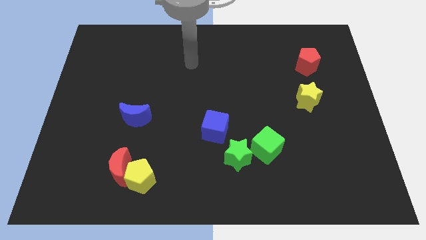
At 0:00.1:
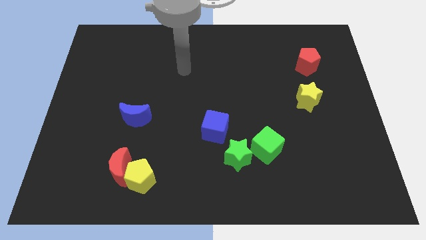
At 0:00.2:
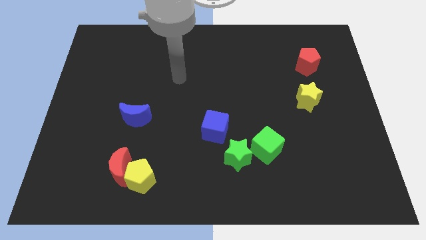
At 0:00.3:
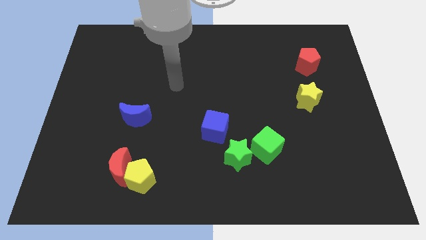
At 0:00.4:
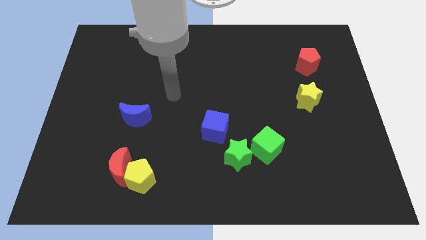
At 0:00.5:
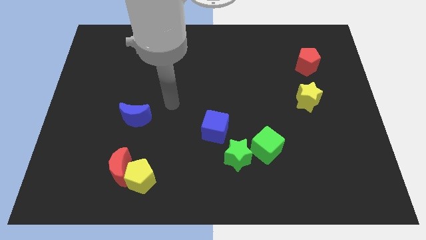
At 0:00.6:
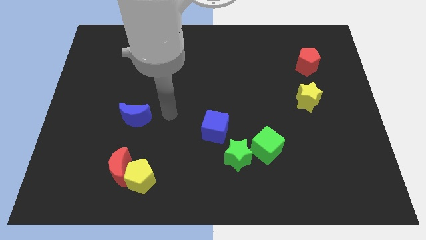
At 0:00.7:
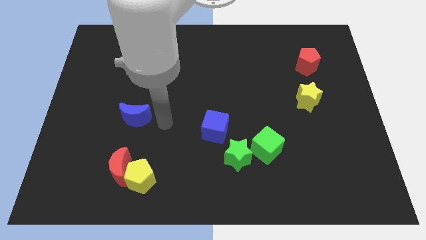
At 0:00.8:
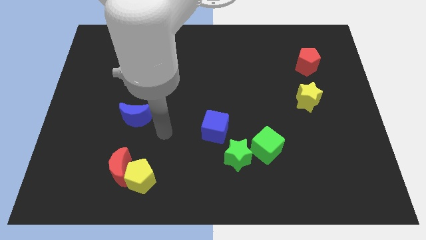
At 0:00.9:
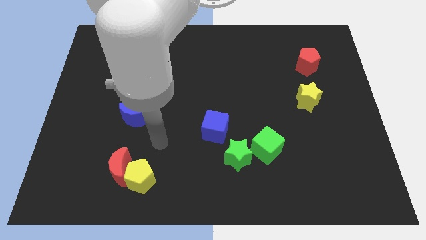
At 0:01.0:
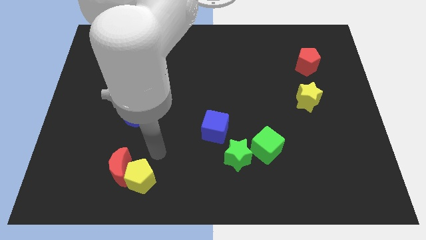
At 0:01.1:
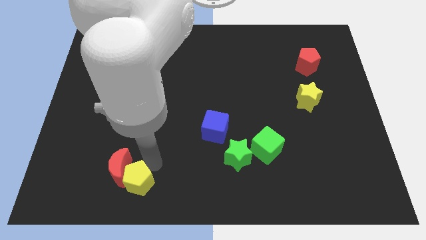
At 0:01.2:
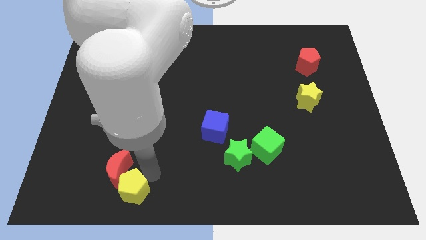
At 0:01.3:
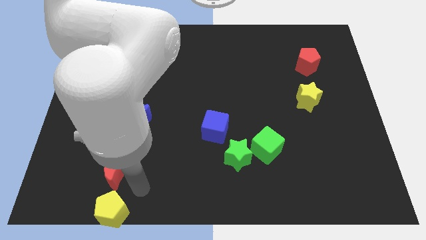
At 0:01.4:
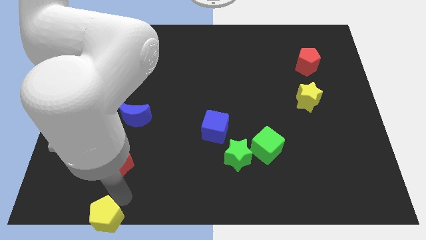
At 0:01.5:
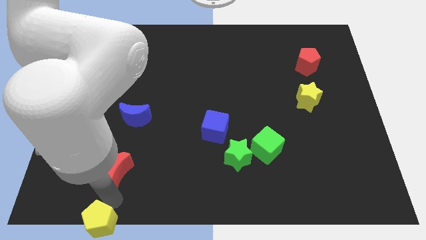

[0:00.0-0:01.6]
move the red moon away from the yellow pentagon

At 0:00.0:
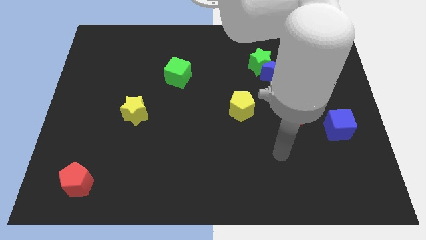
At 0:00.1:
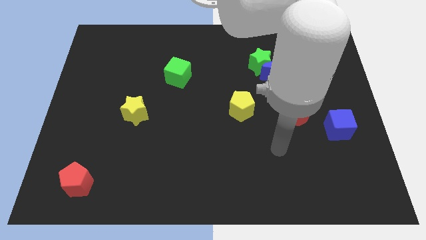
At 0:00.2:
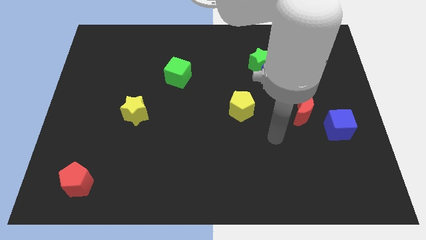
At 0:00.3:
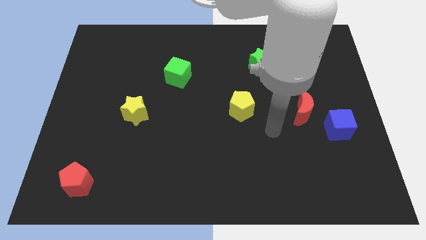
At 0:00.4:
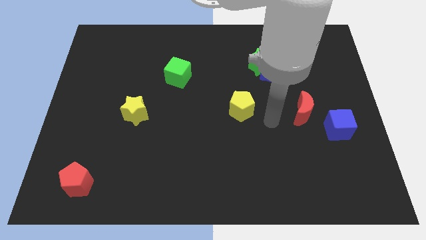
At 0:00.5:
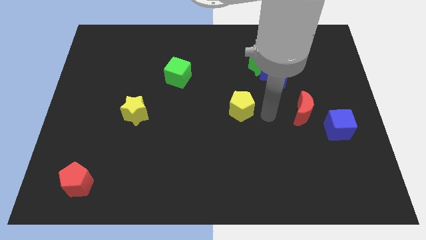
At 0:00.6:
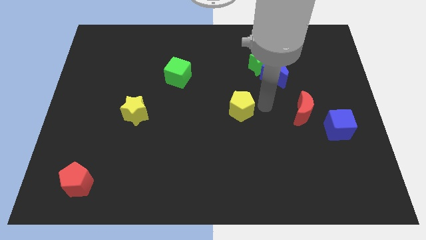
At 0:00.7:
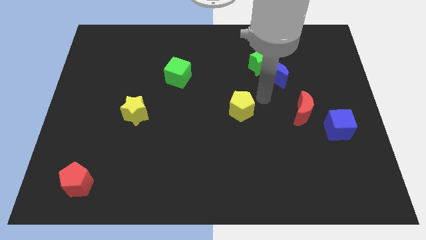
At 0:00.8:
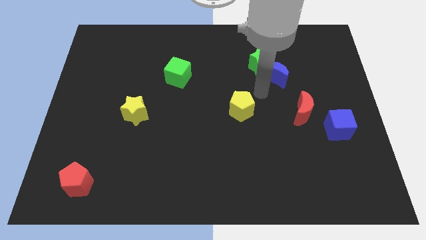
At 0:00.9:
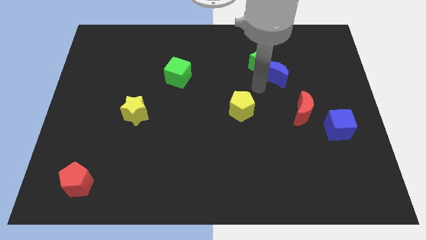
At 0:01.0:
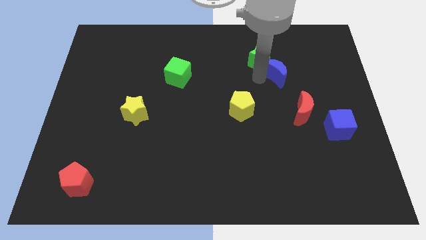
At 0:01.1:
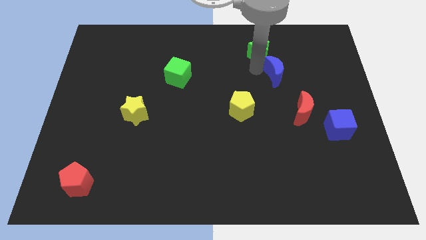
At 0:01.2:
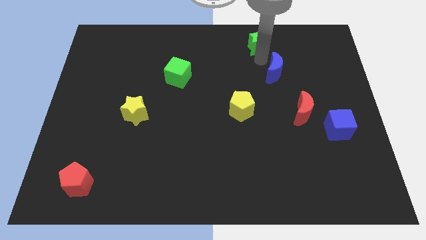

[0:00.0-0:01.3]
separate the blue moon from the green star

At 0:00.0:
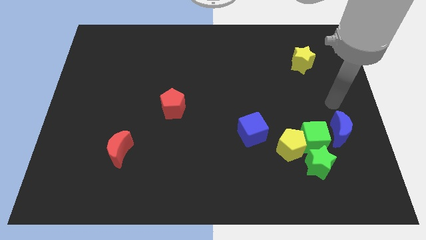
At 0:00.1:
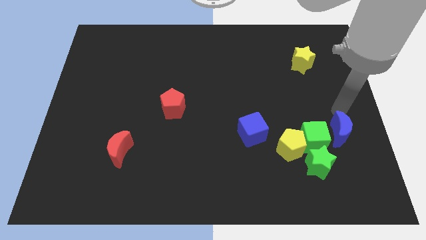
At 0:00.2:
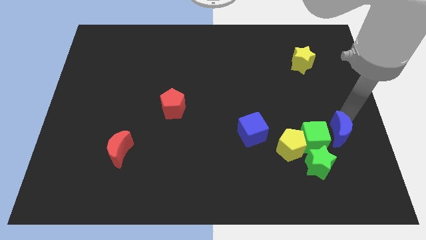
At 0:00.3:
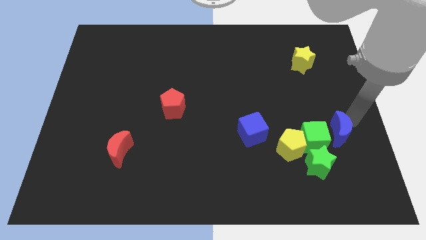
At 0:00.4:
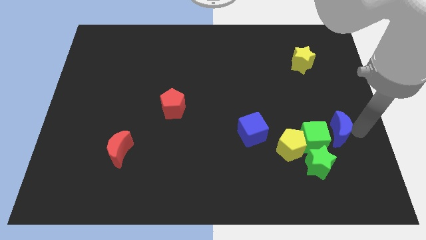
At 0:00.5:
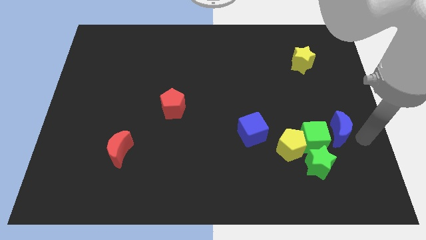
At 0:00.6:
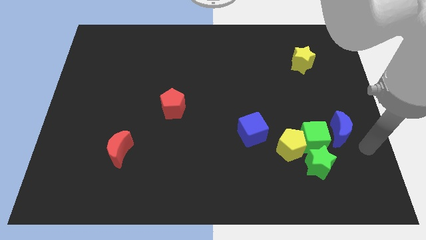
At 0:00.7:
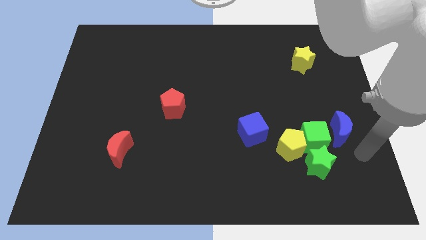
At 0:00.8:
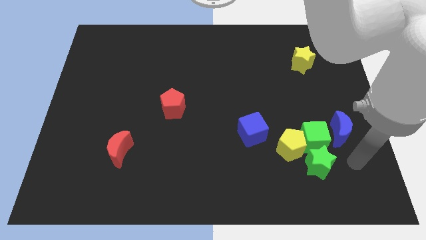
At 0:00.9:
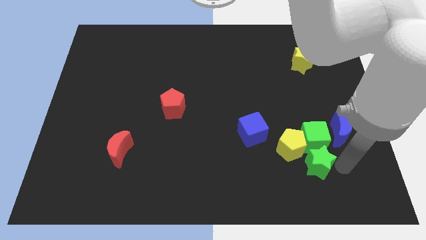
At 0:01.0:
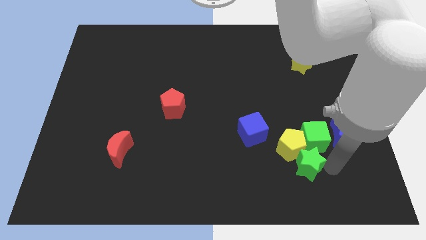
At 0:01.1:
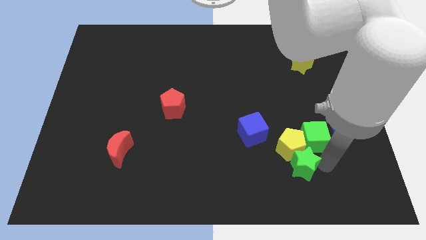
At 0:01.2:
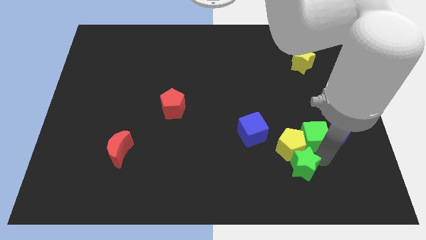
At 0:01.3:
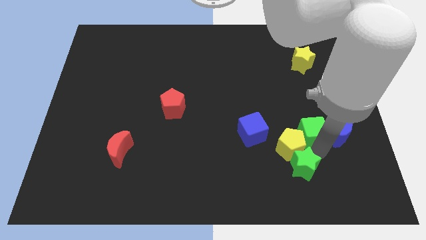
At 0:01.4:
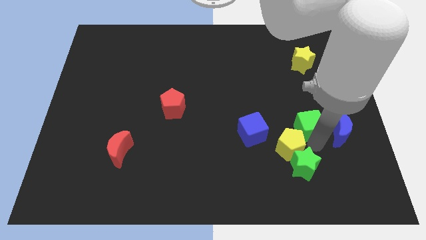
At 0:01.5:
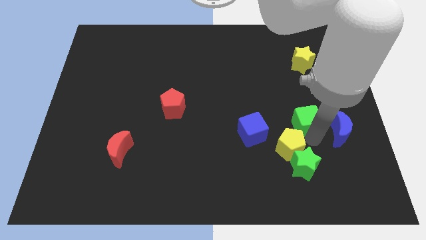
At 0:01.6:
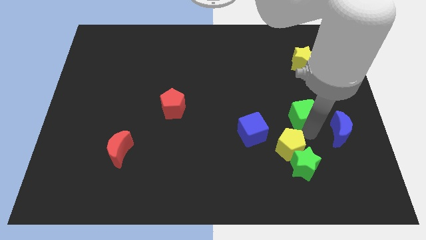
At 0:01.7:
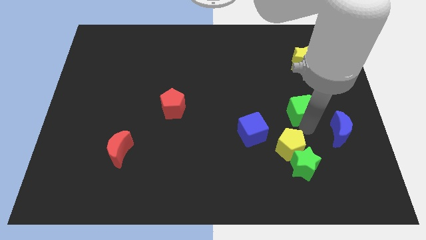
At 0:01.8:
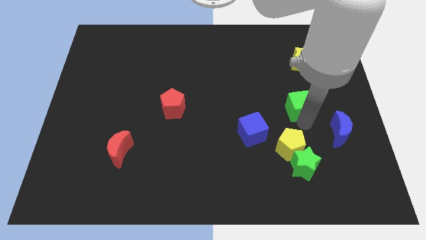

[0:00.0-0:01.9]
pull the green cube apart from the group

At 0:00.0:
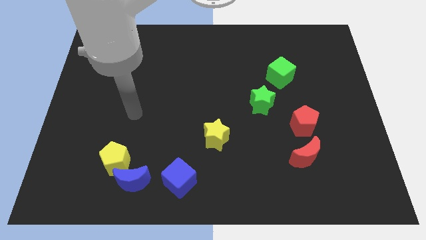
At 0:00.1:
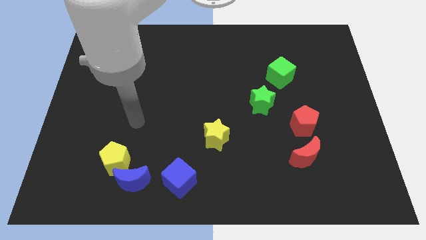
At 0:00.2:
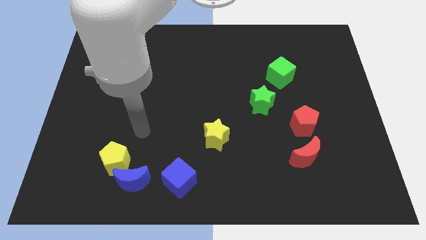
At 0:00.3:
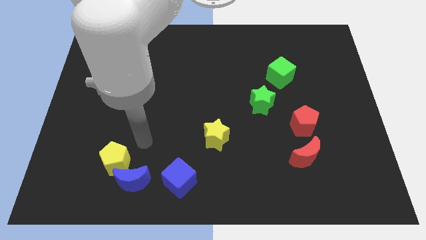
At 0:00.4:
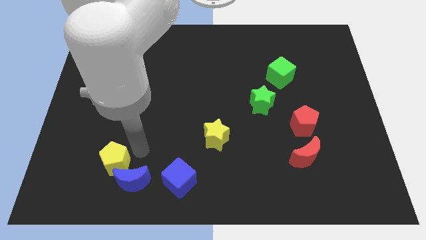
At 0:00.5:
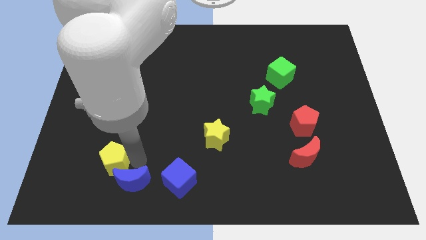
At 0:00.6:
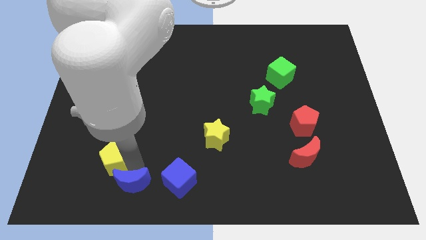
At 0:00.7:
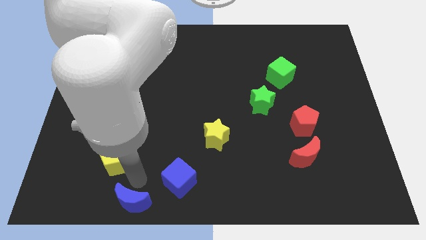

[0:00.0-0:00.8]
separate the yellow pentagon from the blue moon

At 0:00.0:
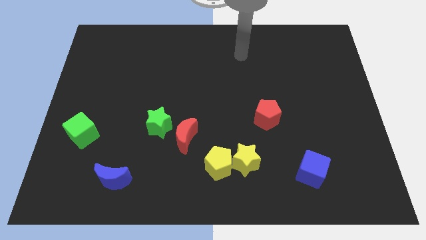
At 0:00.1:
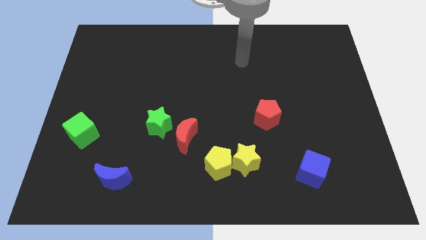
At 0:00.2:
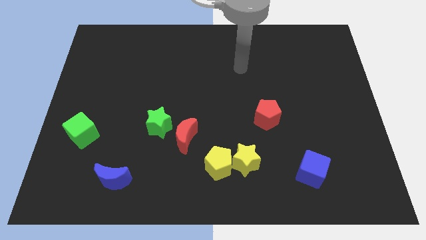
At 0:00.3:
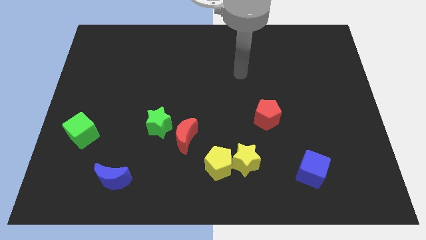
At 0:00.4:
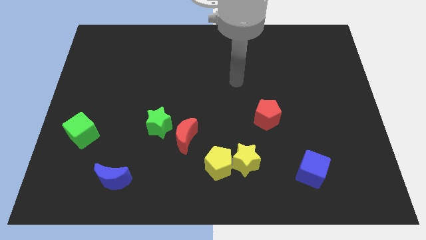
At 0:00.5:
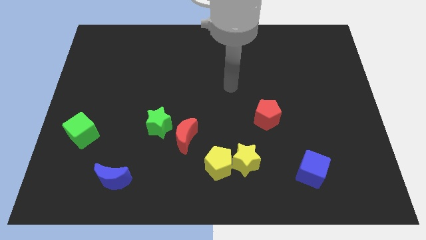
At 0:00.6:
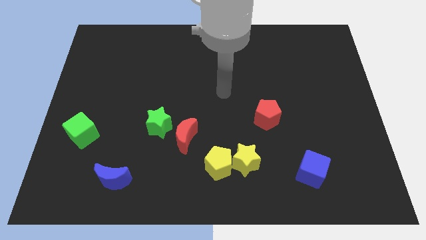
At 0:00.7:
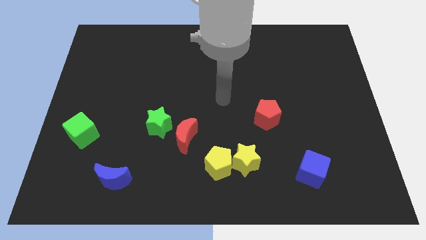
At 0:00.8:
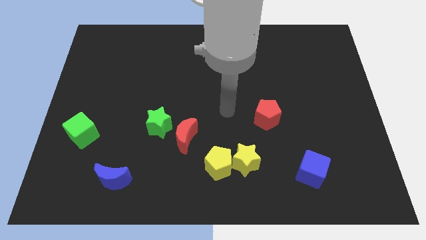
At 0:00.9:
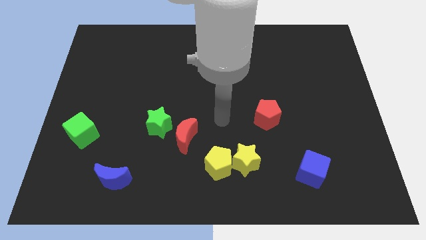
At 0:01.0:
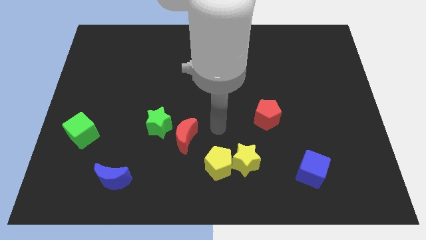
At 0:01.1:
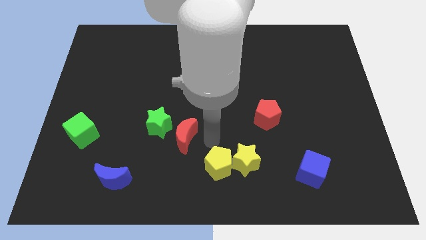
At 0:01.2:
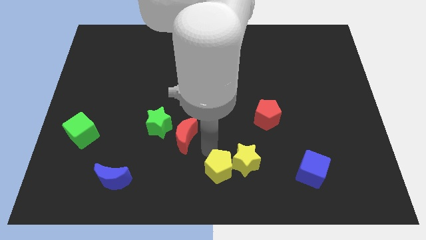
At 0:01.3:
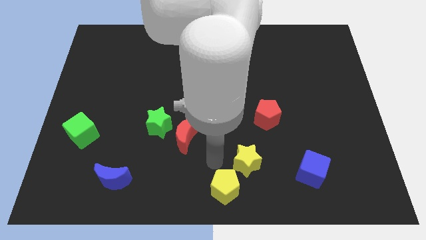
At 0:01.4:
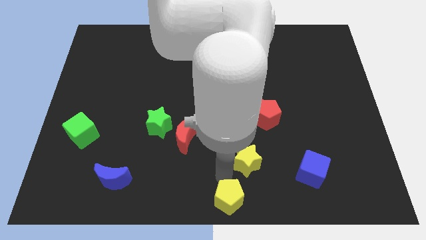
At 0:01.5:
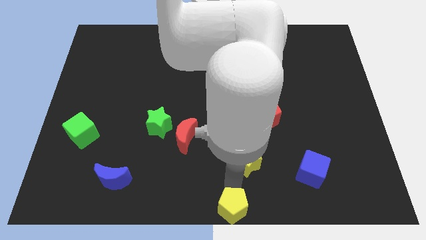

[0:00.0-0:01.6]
move the yellow star away from the yellow pentagon

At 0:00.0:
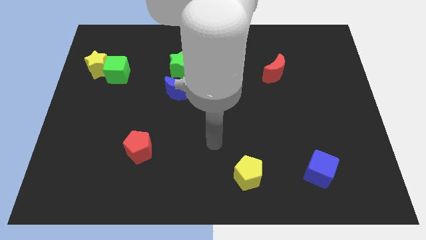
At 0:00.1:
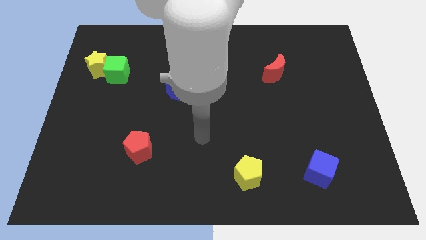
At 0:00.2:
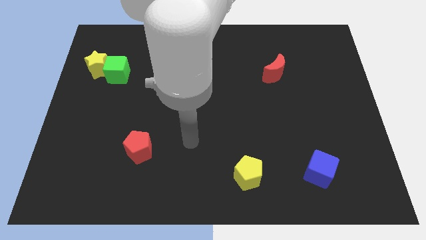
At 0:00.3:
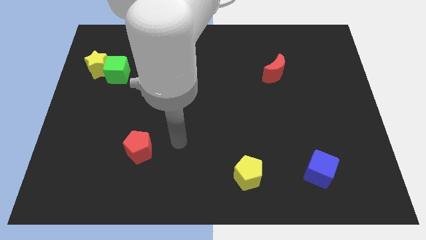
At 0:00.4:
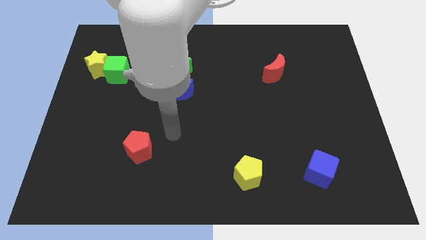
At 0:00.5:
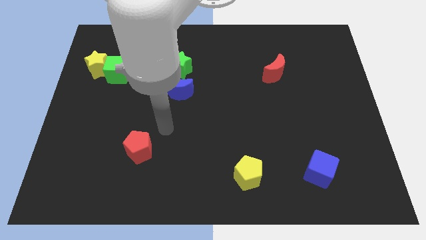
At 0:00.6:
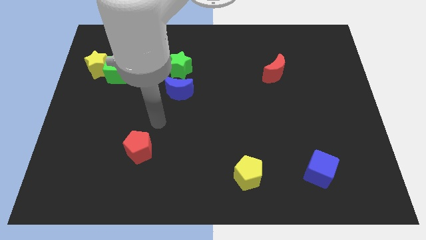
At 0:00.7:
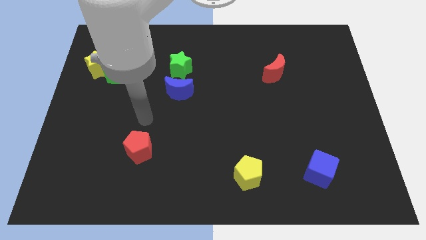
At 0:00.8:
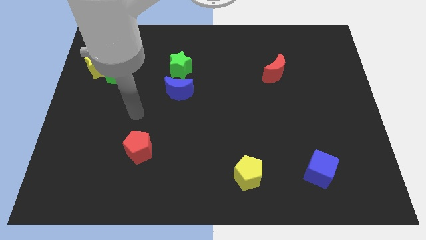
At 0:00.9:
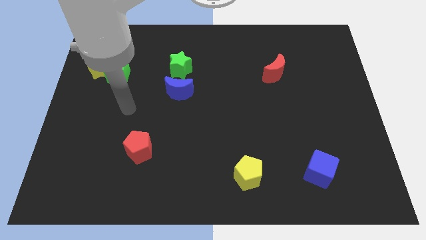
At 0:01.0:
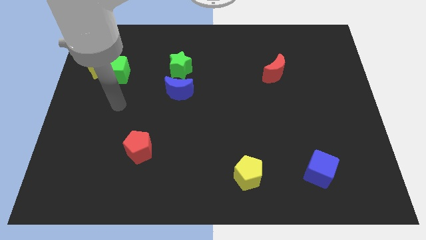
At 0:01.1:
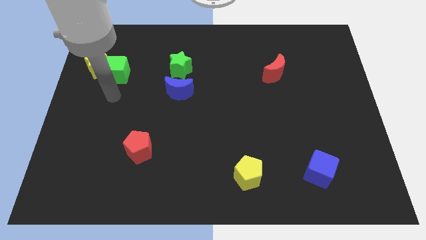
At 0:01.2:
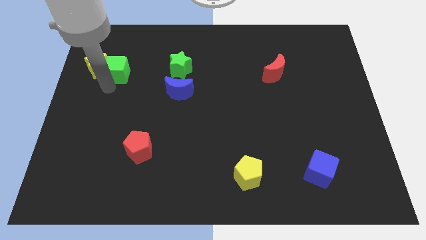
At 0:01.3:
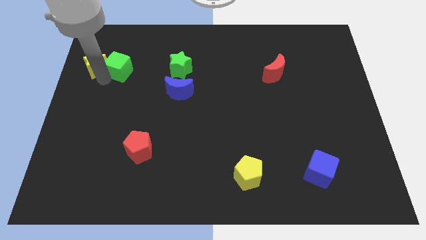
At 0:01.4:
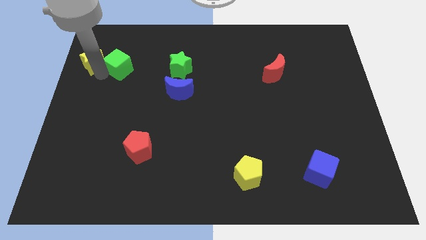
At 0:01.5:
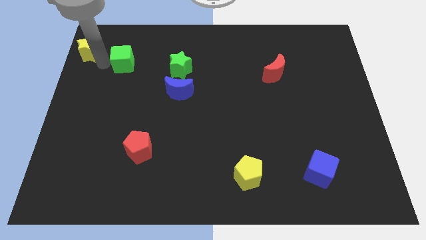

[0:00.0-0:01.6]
pull the green cube apart from the yellow star

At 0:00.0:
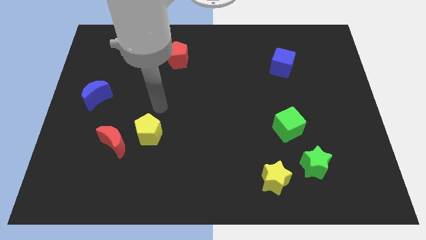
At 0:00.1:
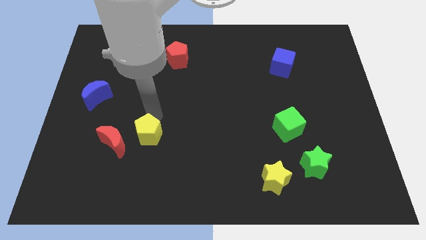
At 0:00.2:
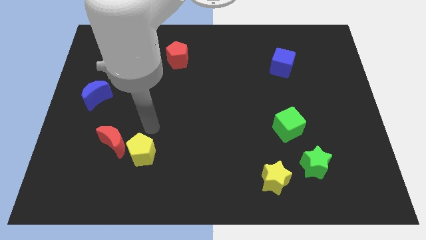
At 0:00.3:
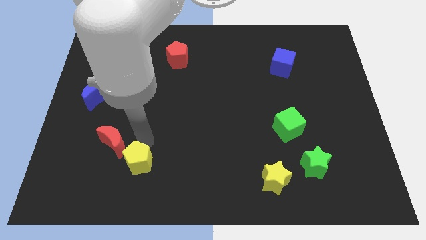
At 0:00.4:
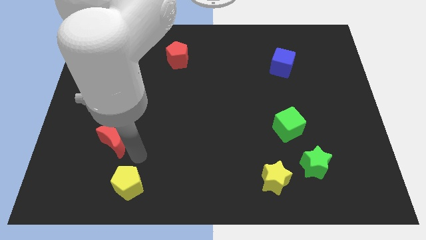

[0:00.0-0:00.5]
pull the red moon apart from the yellow pentagon
